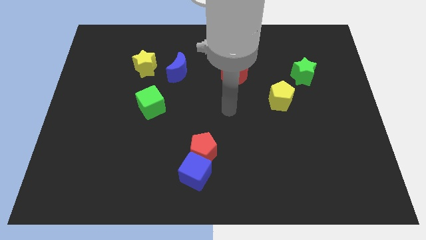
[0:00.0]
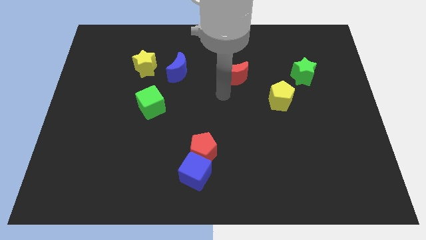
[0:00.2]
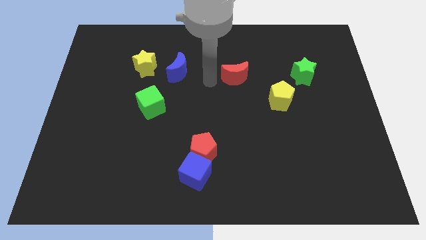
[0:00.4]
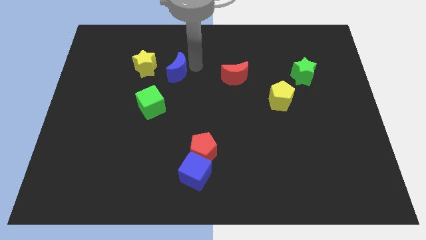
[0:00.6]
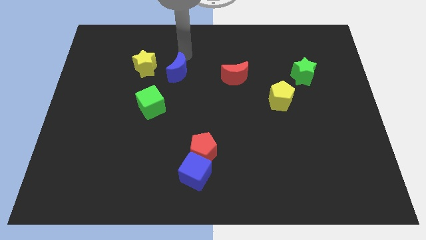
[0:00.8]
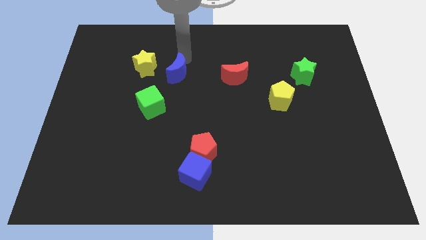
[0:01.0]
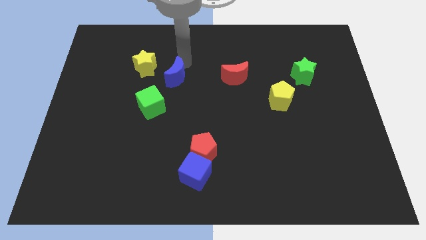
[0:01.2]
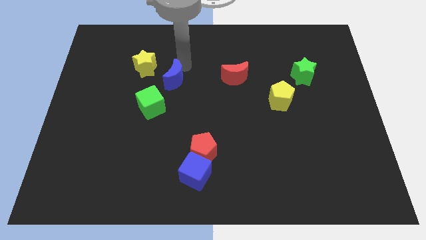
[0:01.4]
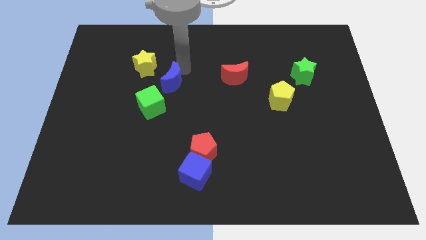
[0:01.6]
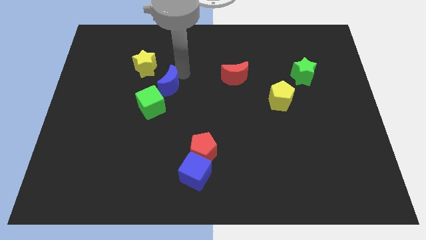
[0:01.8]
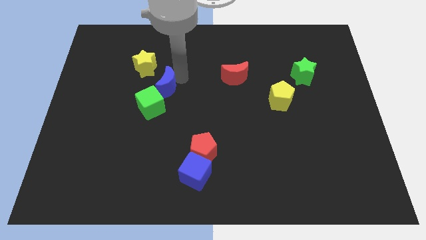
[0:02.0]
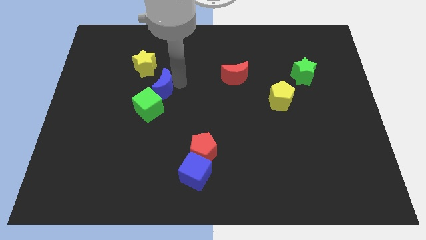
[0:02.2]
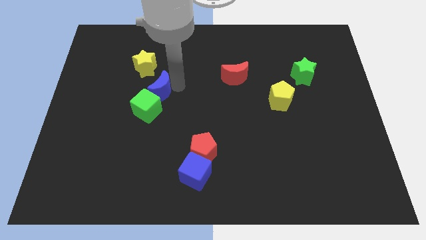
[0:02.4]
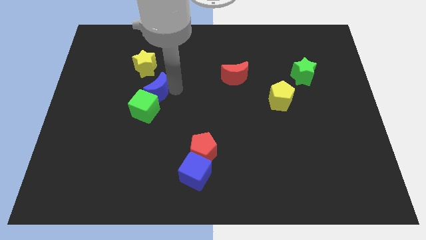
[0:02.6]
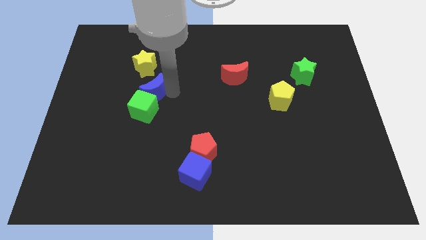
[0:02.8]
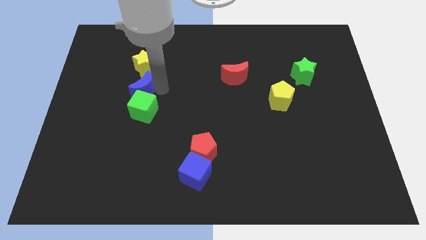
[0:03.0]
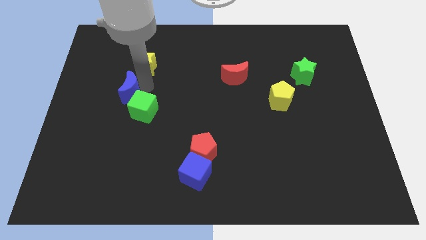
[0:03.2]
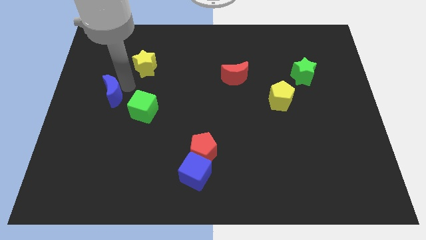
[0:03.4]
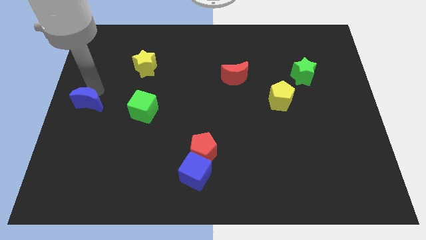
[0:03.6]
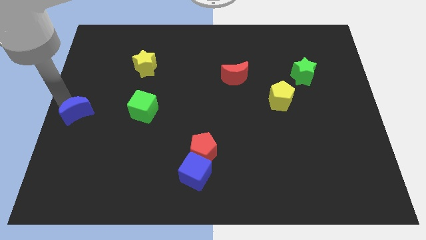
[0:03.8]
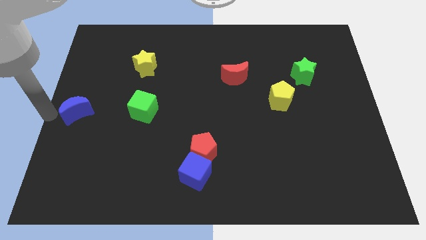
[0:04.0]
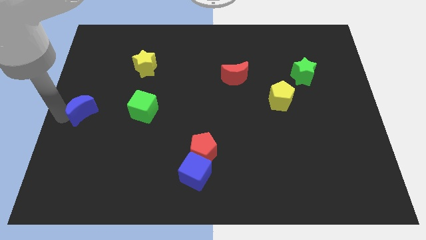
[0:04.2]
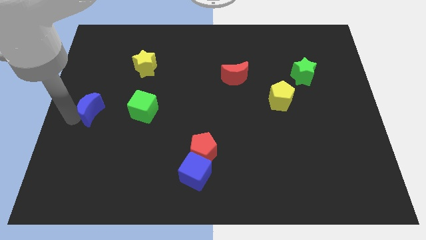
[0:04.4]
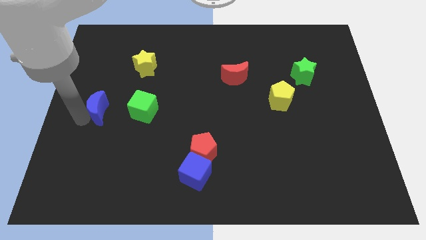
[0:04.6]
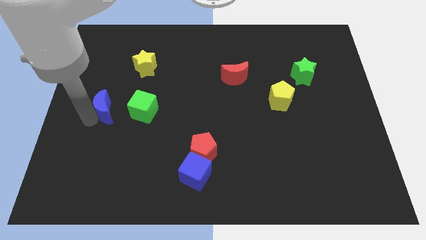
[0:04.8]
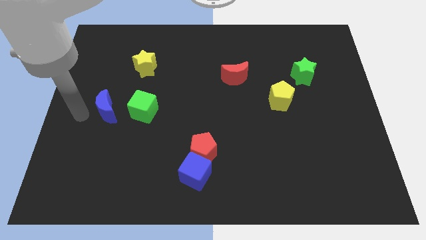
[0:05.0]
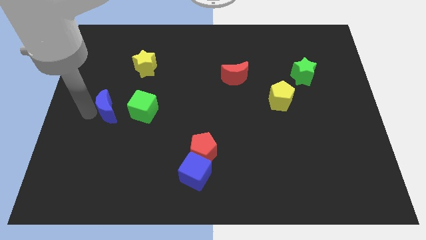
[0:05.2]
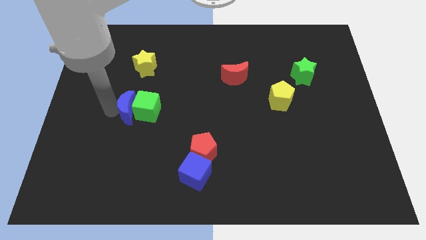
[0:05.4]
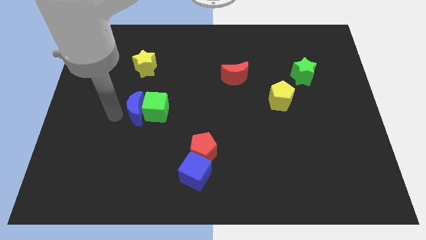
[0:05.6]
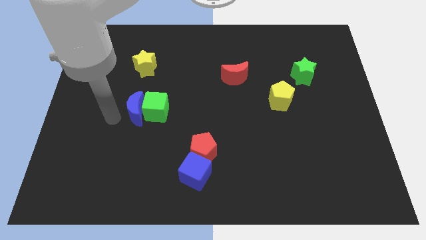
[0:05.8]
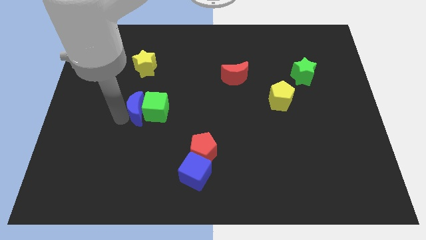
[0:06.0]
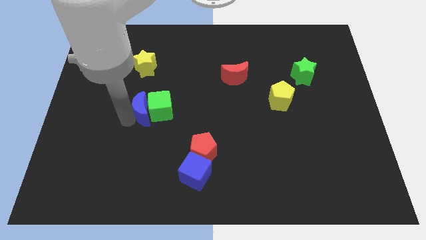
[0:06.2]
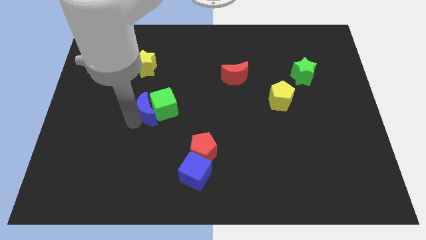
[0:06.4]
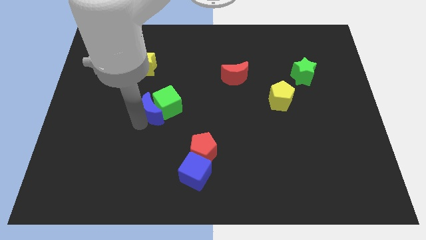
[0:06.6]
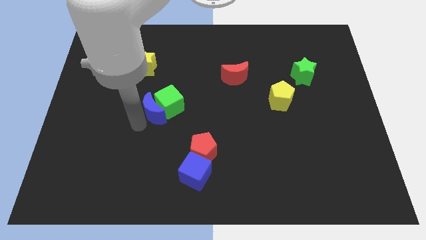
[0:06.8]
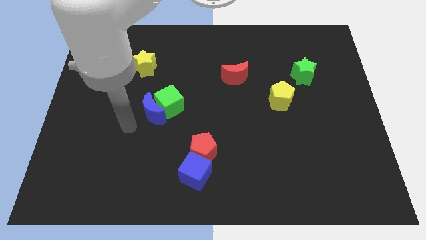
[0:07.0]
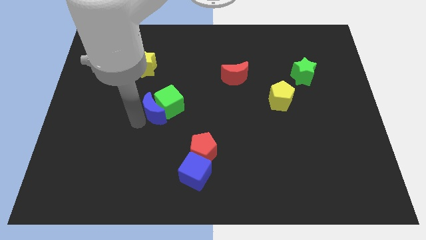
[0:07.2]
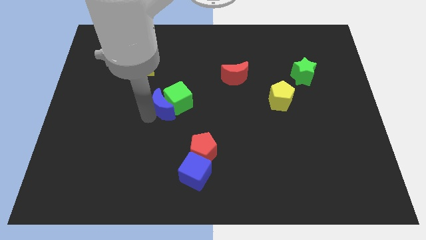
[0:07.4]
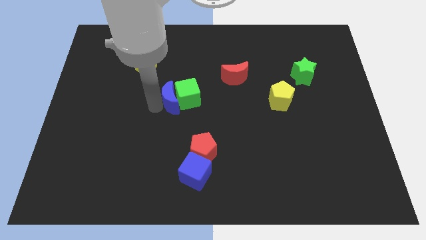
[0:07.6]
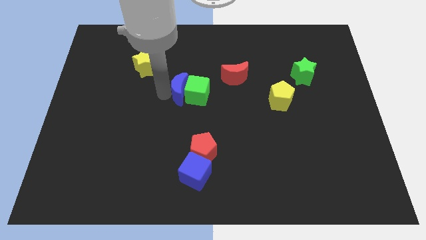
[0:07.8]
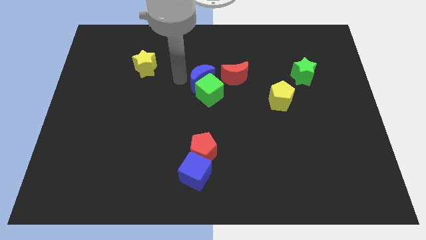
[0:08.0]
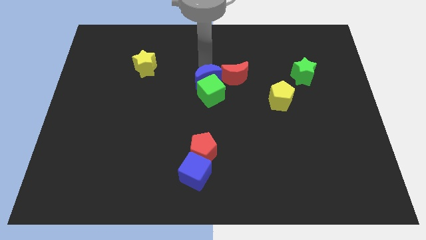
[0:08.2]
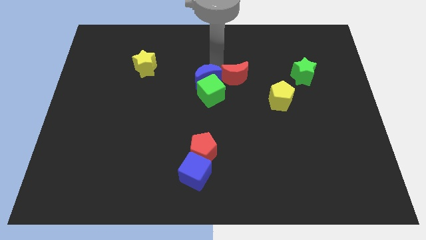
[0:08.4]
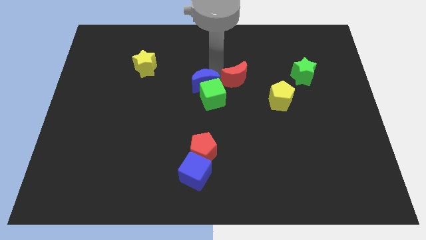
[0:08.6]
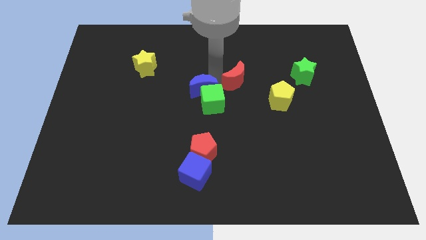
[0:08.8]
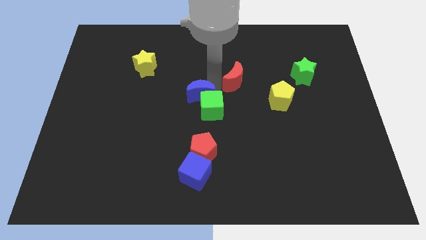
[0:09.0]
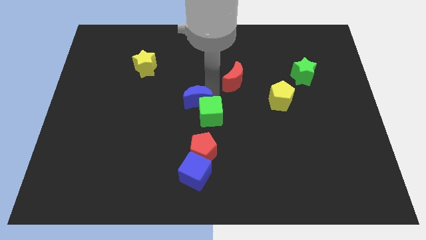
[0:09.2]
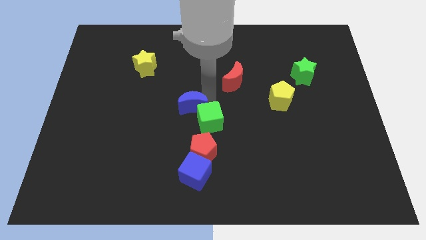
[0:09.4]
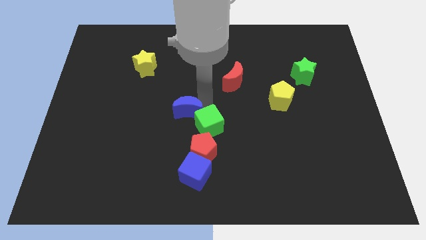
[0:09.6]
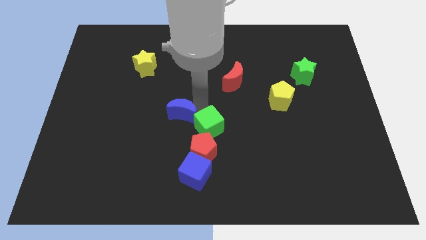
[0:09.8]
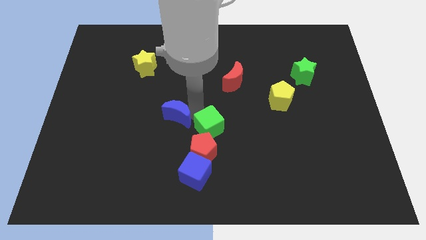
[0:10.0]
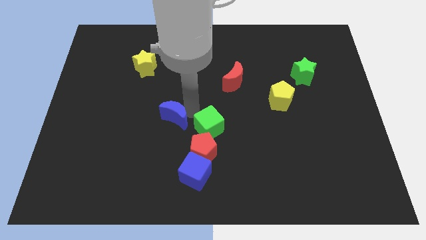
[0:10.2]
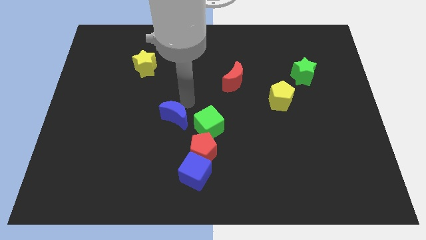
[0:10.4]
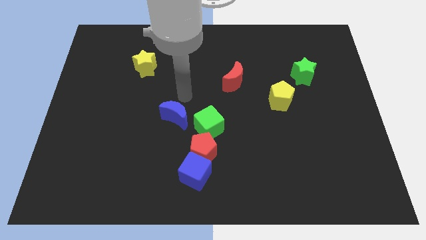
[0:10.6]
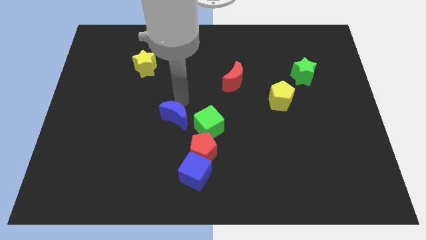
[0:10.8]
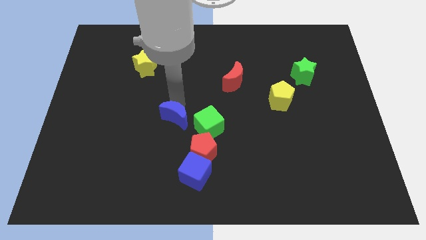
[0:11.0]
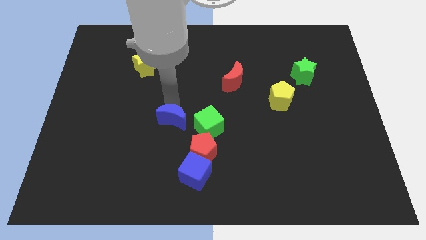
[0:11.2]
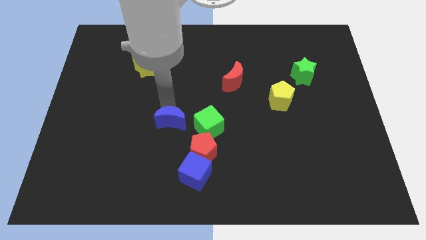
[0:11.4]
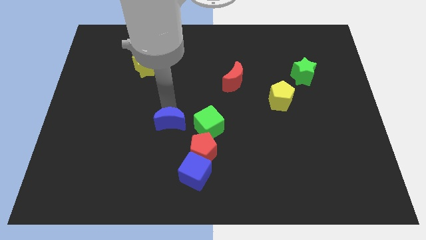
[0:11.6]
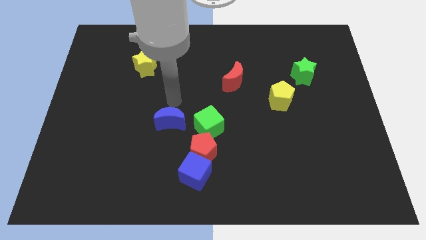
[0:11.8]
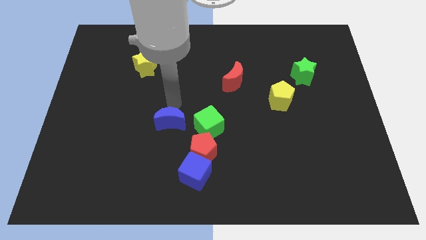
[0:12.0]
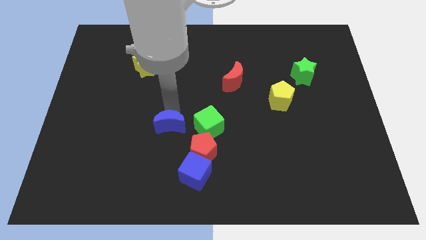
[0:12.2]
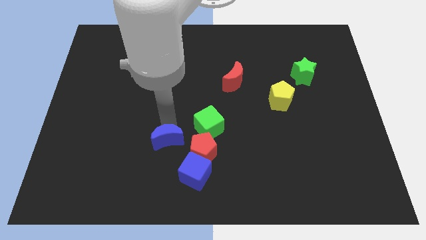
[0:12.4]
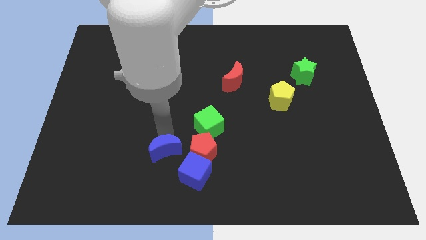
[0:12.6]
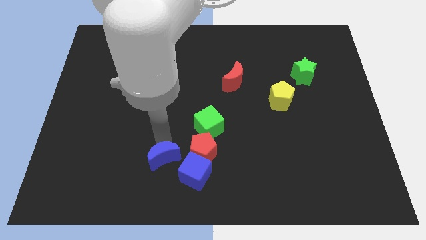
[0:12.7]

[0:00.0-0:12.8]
move the blue moon diagonally down and to the left of the red pentagon

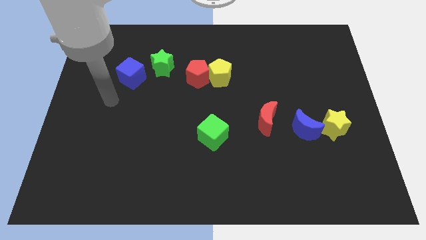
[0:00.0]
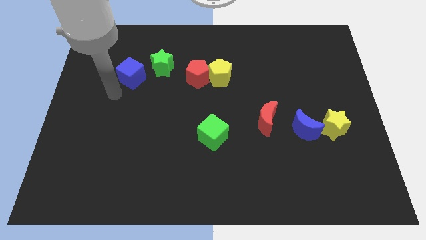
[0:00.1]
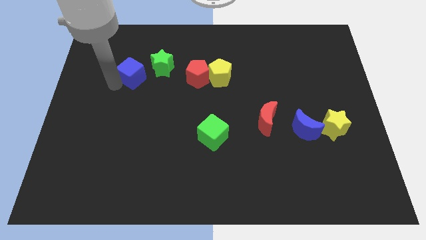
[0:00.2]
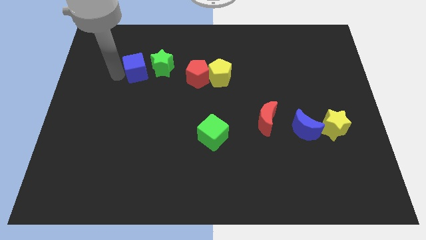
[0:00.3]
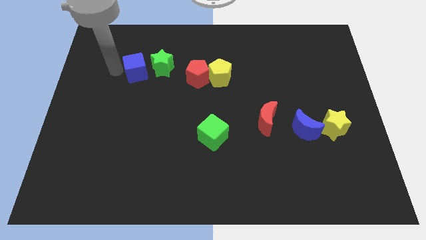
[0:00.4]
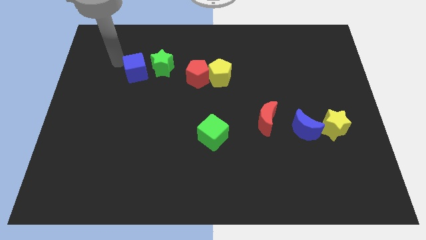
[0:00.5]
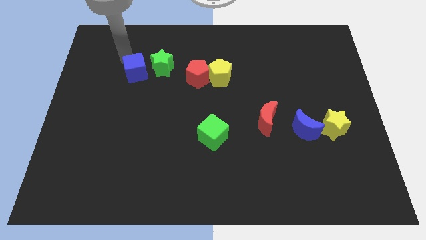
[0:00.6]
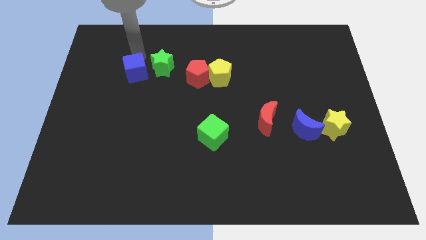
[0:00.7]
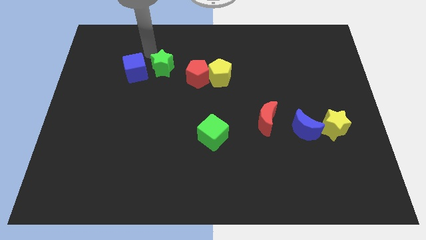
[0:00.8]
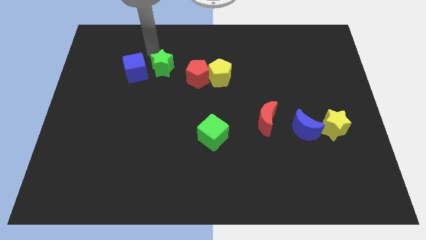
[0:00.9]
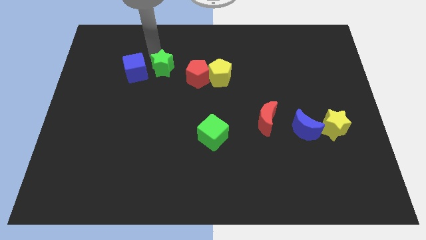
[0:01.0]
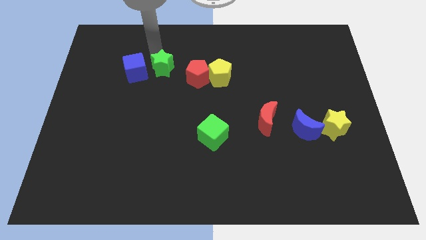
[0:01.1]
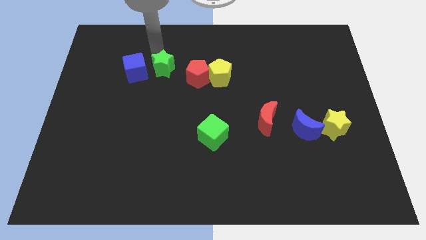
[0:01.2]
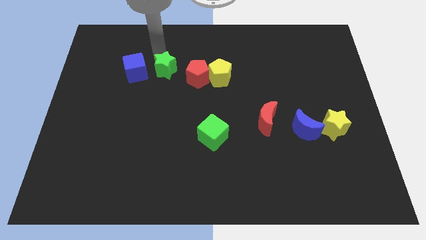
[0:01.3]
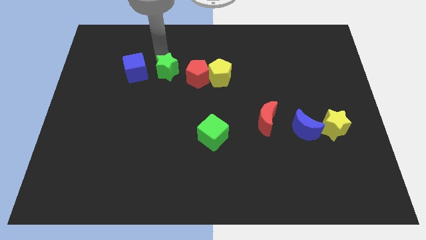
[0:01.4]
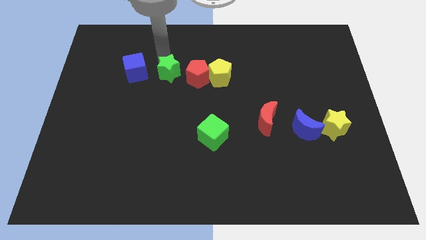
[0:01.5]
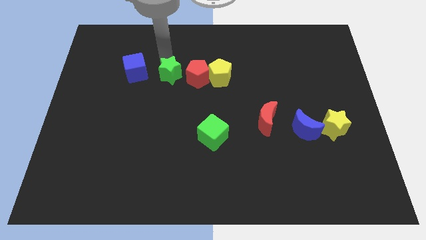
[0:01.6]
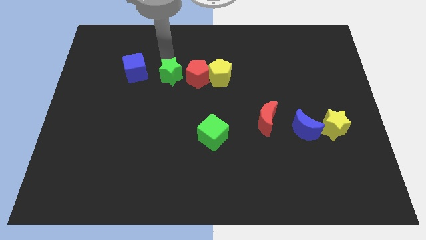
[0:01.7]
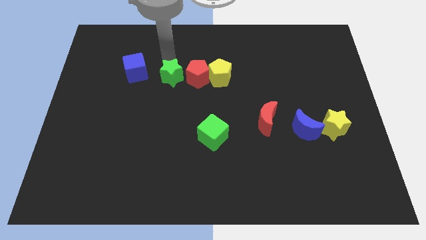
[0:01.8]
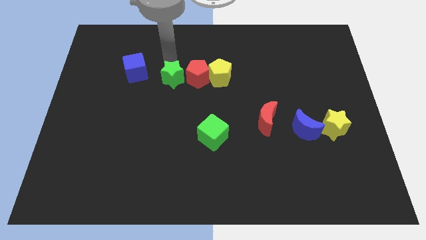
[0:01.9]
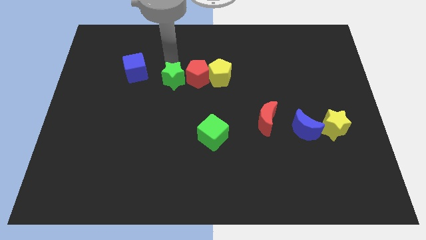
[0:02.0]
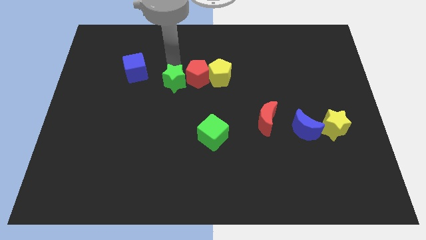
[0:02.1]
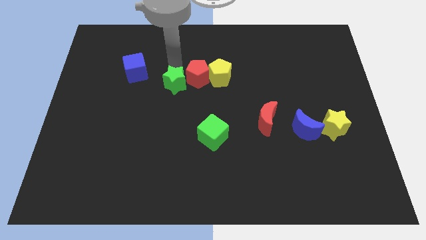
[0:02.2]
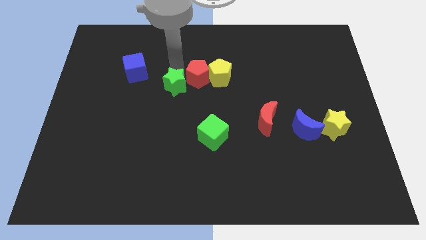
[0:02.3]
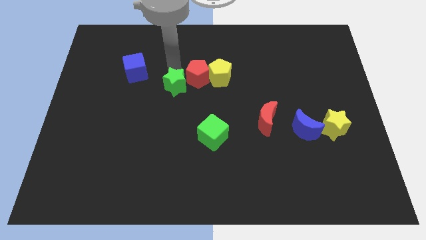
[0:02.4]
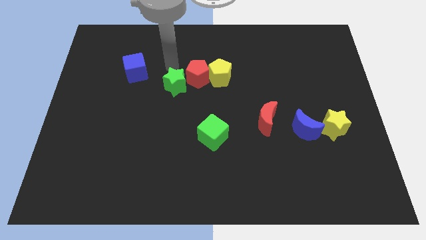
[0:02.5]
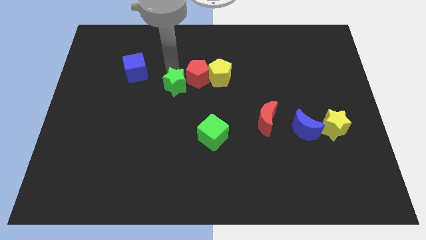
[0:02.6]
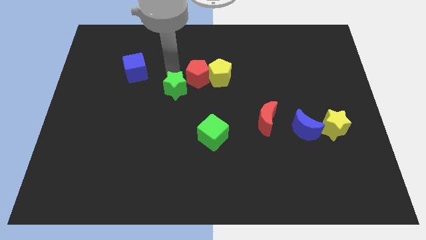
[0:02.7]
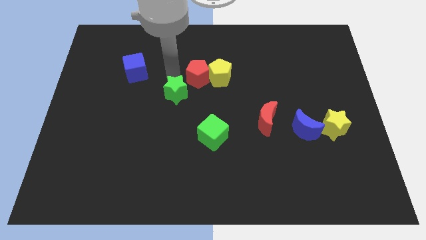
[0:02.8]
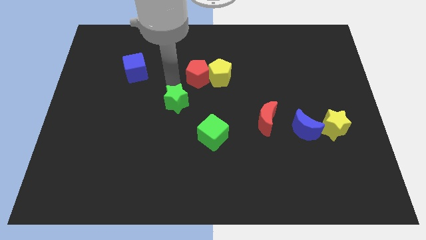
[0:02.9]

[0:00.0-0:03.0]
put the green star diagonally up and to the left of the green cube
